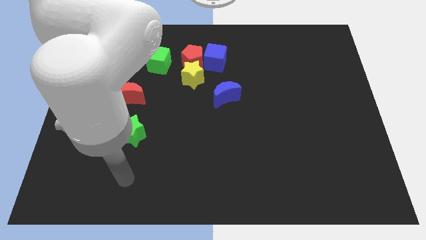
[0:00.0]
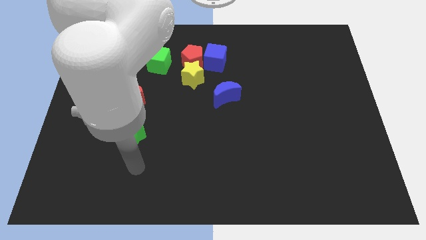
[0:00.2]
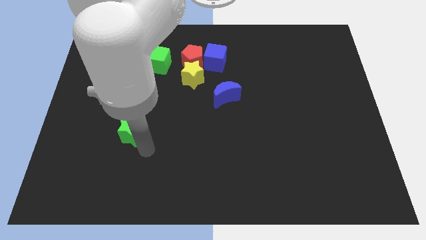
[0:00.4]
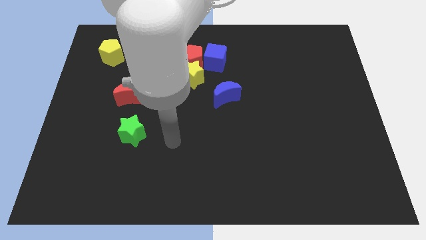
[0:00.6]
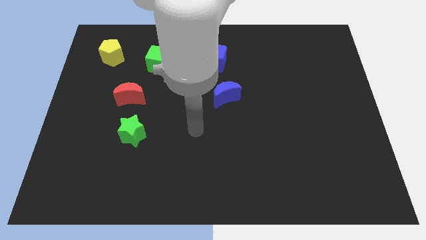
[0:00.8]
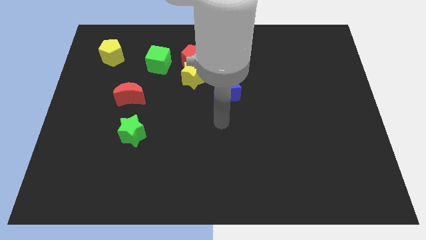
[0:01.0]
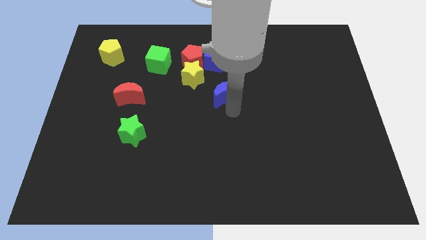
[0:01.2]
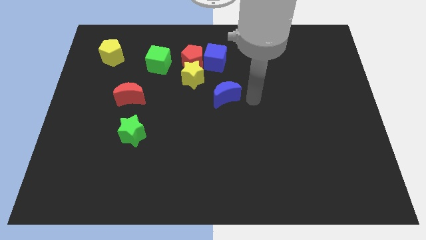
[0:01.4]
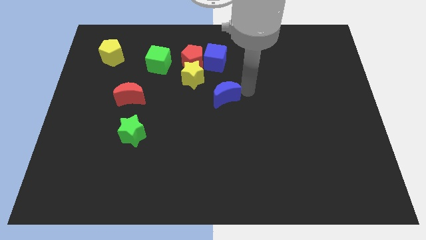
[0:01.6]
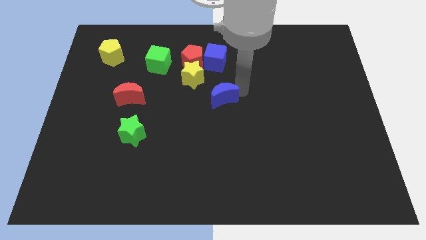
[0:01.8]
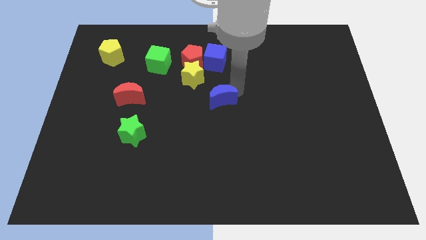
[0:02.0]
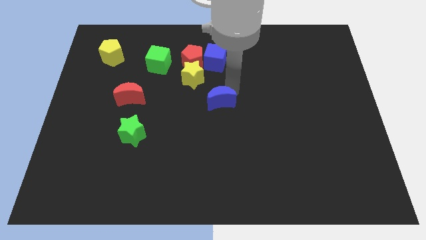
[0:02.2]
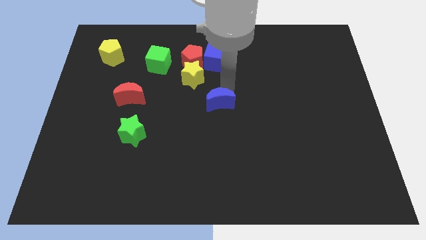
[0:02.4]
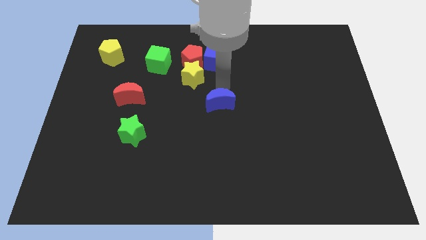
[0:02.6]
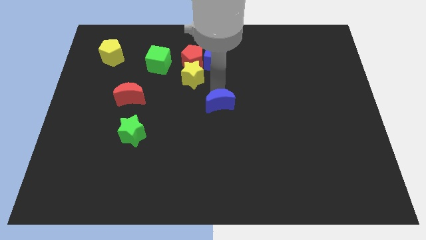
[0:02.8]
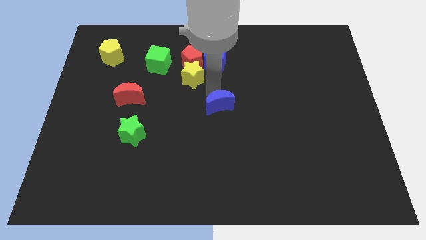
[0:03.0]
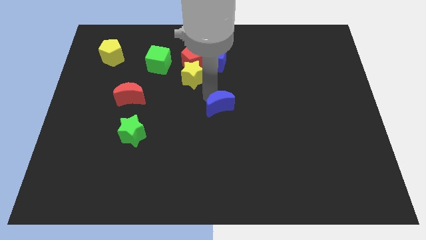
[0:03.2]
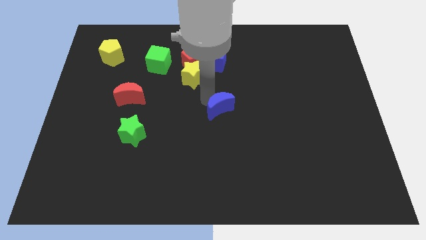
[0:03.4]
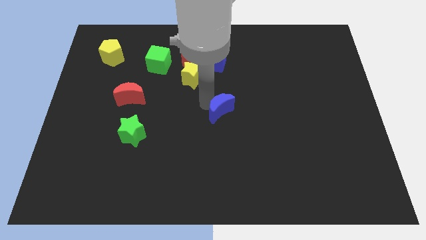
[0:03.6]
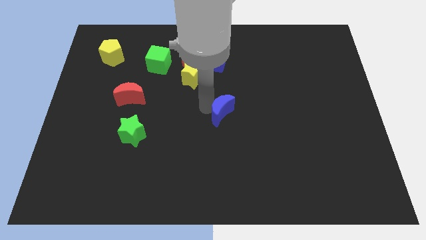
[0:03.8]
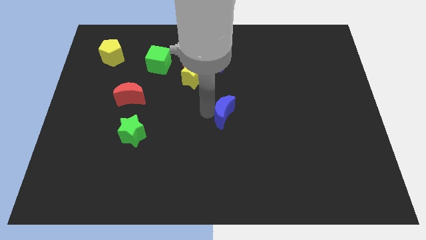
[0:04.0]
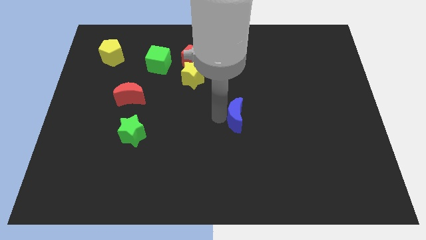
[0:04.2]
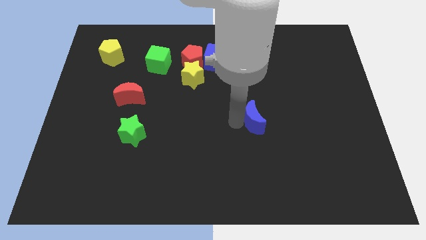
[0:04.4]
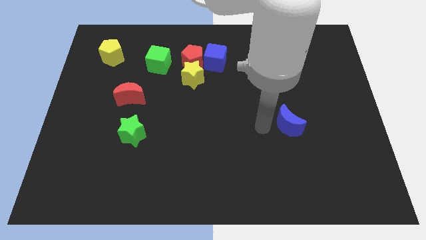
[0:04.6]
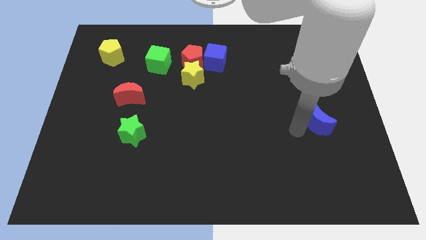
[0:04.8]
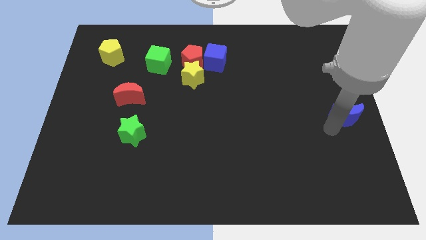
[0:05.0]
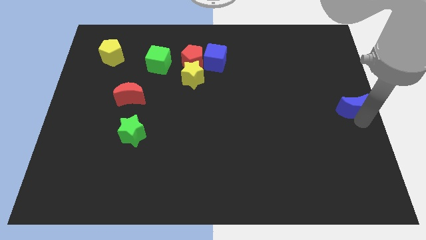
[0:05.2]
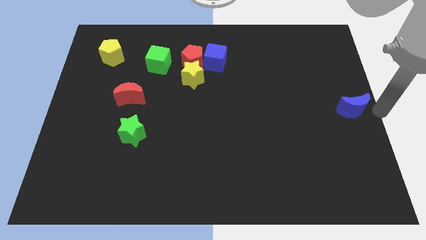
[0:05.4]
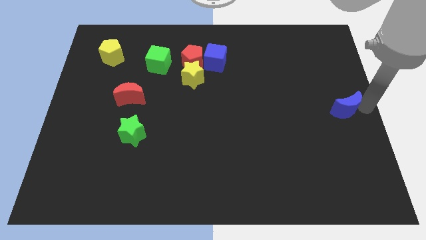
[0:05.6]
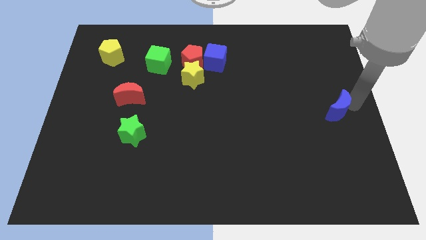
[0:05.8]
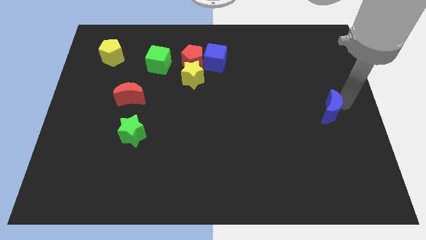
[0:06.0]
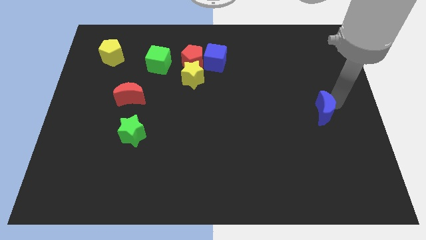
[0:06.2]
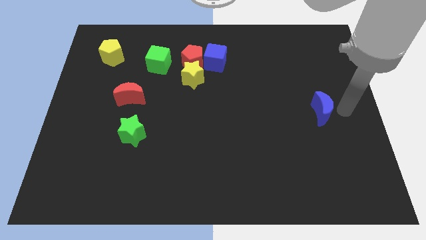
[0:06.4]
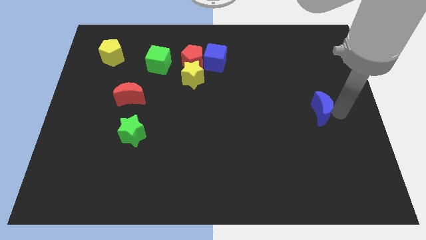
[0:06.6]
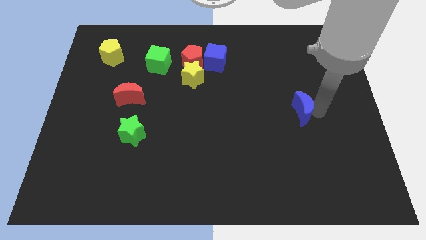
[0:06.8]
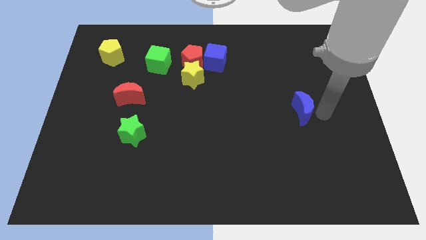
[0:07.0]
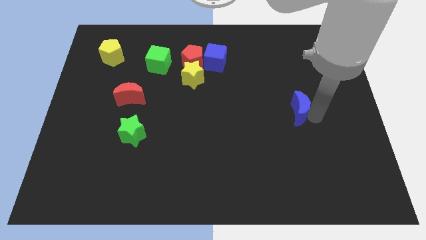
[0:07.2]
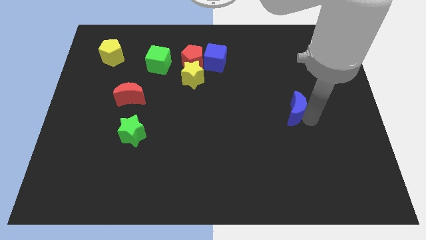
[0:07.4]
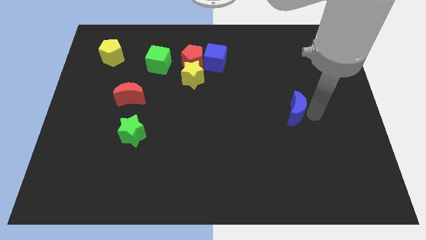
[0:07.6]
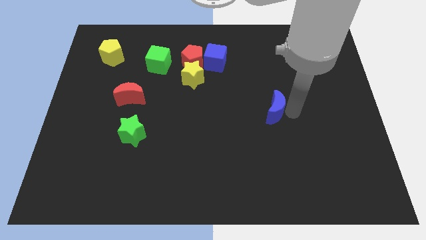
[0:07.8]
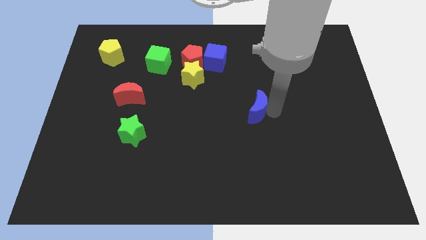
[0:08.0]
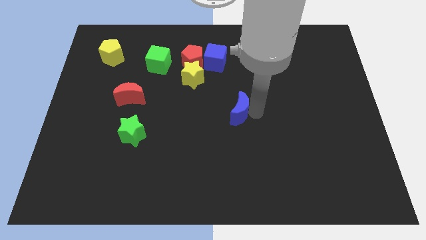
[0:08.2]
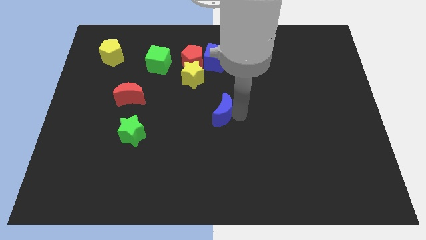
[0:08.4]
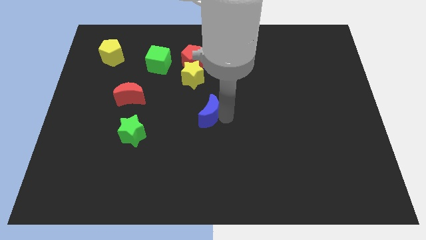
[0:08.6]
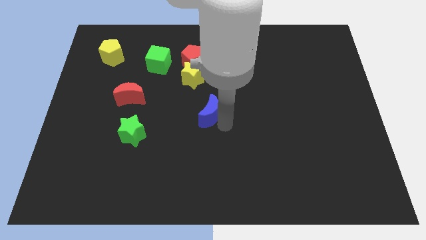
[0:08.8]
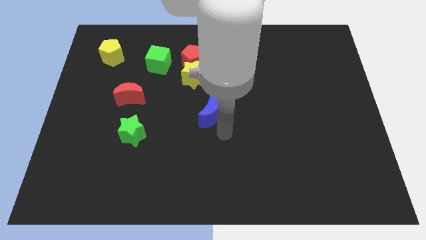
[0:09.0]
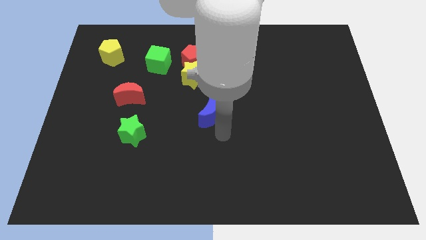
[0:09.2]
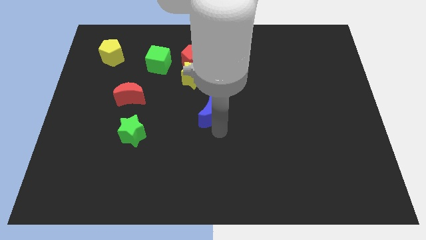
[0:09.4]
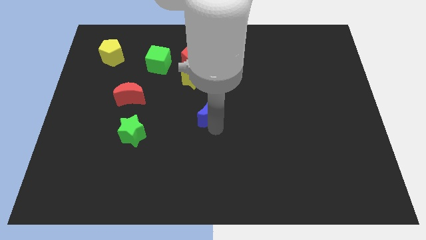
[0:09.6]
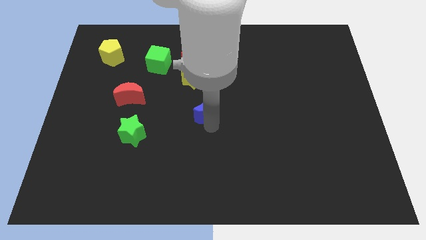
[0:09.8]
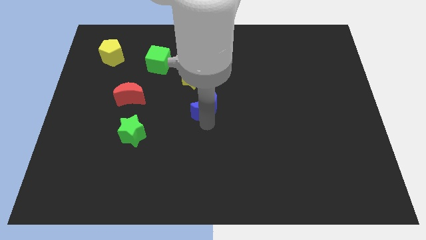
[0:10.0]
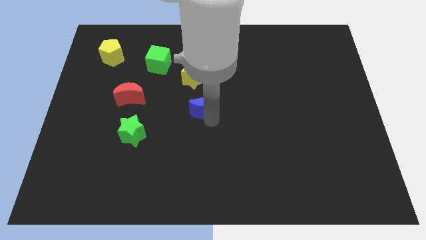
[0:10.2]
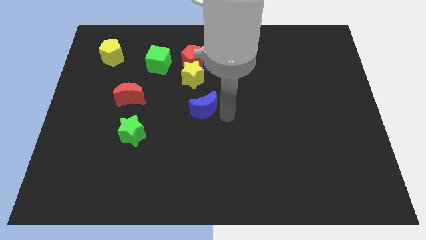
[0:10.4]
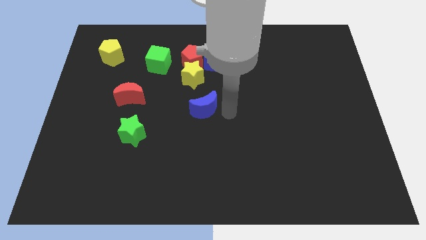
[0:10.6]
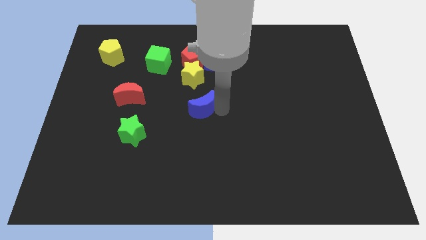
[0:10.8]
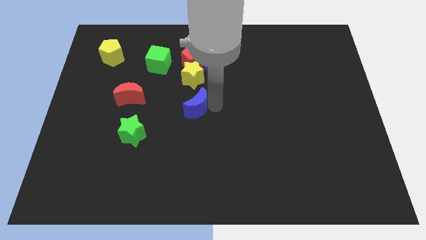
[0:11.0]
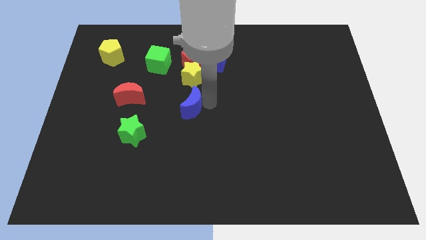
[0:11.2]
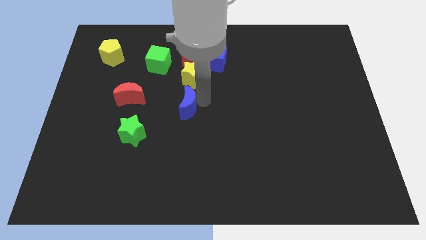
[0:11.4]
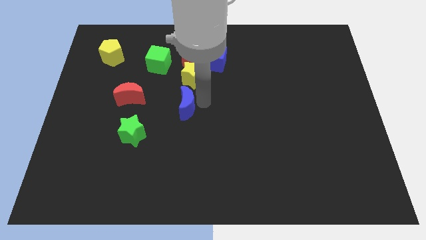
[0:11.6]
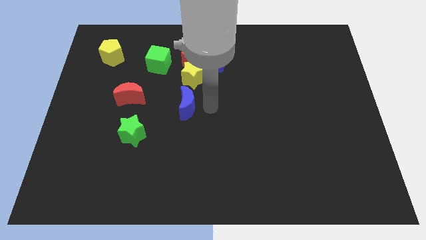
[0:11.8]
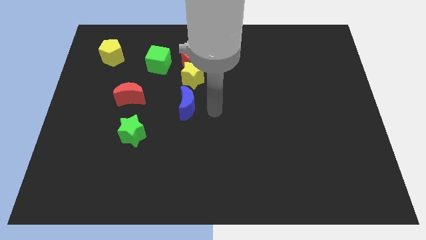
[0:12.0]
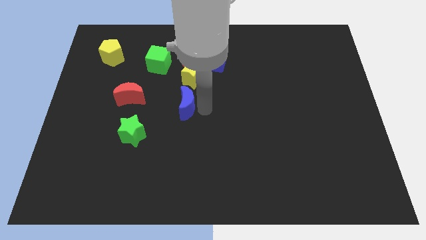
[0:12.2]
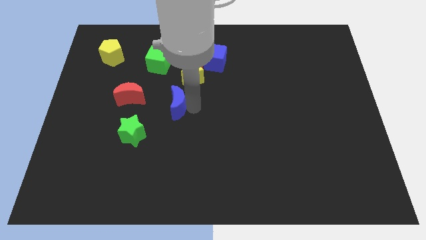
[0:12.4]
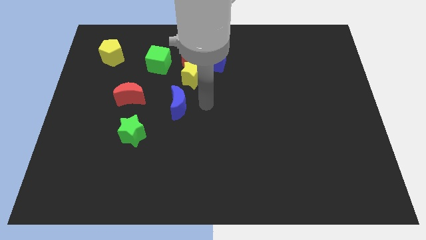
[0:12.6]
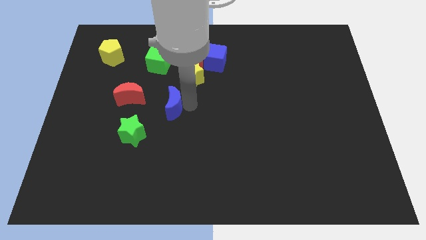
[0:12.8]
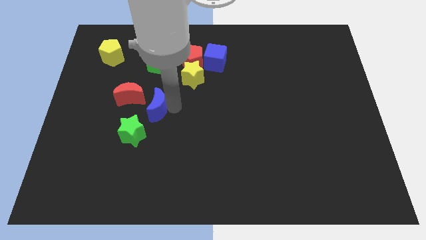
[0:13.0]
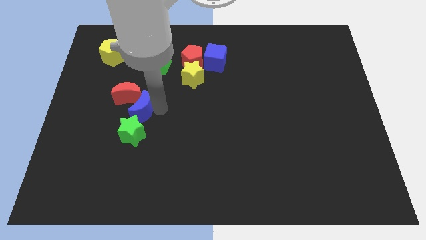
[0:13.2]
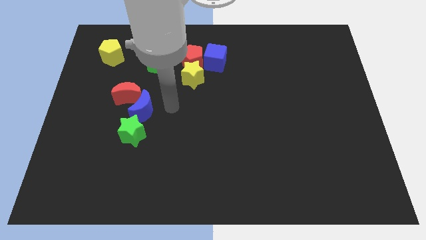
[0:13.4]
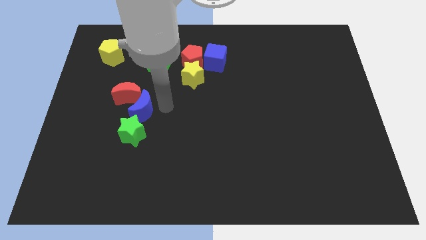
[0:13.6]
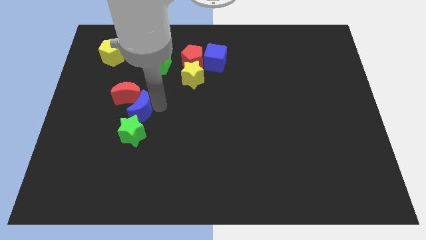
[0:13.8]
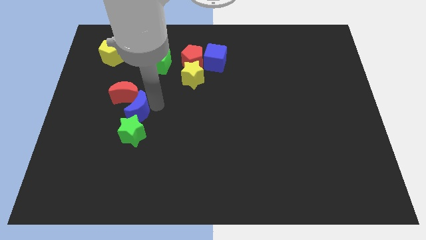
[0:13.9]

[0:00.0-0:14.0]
push the blue moon to the top left side of the green star

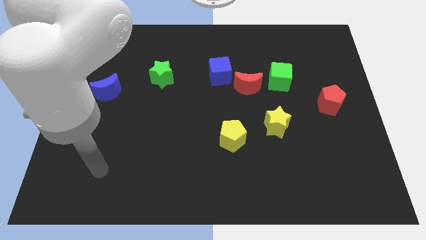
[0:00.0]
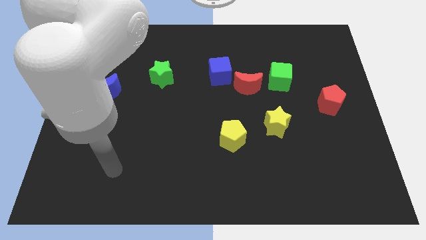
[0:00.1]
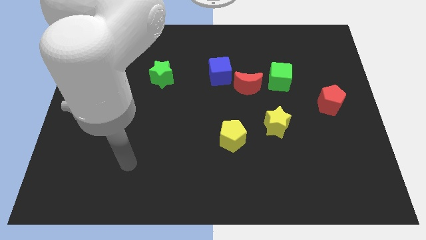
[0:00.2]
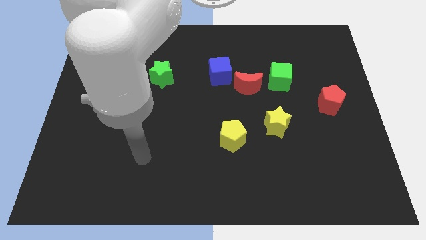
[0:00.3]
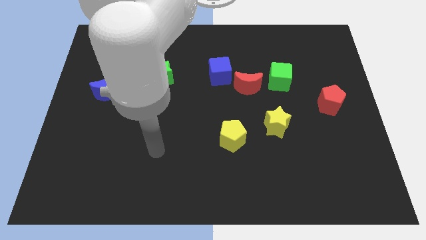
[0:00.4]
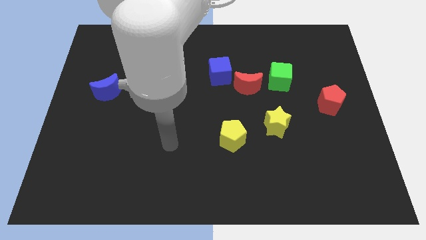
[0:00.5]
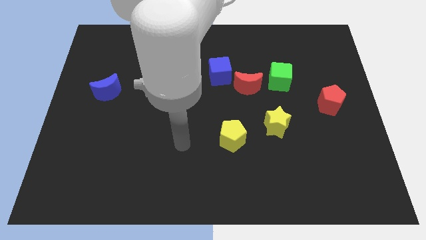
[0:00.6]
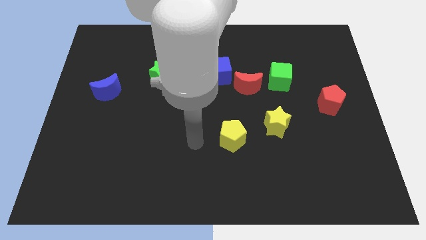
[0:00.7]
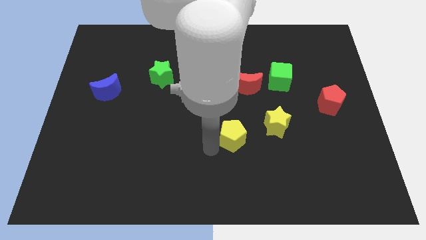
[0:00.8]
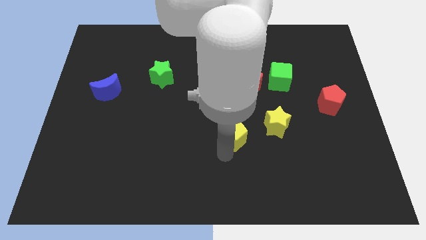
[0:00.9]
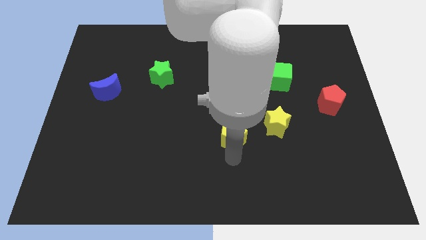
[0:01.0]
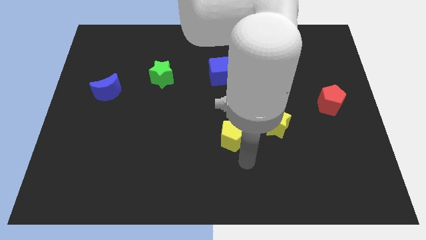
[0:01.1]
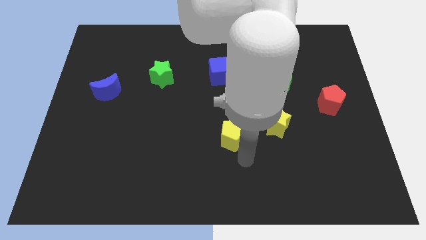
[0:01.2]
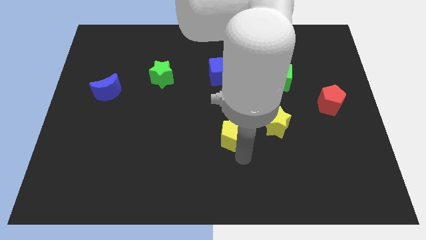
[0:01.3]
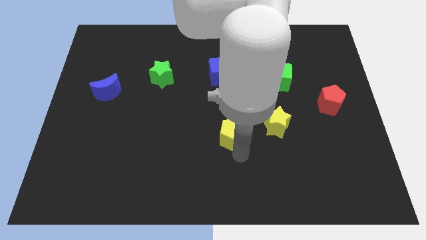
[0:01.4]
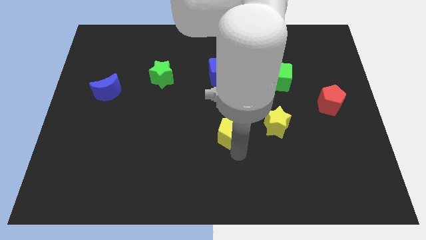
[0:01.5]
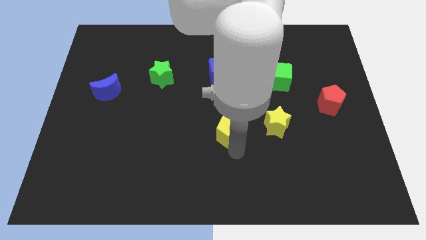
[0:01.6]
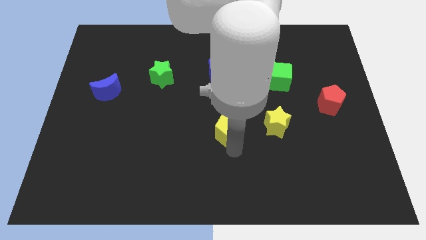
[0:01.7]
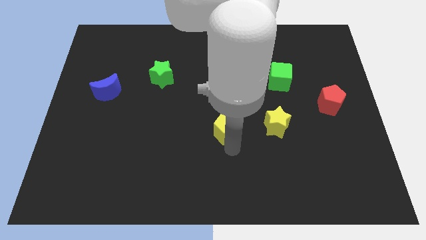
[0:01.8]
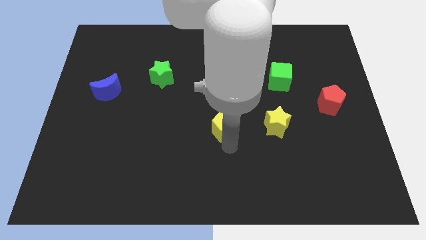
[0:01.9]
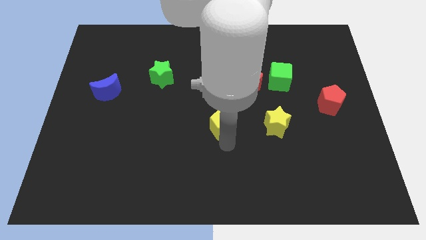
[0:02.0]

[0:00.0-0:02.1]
put the yellow pentagon to the bottom side of the blue cube
